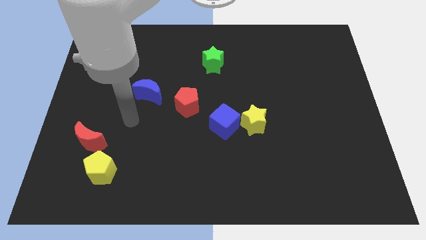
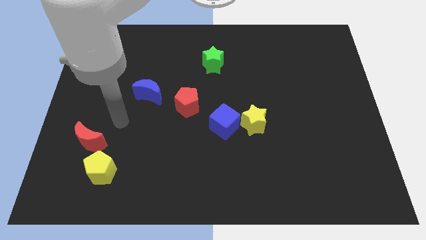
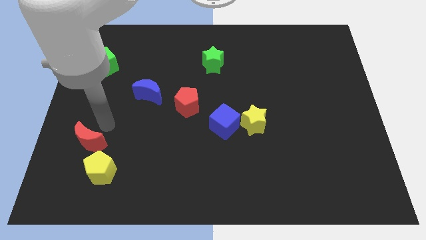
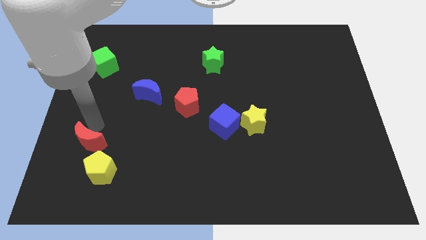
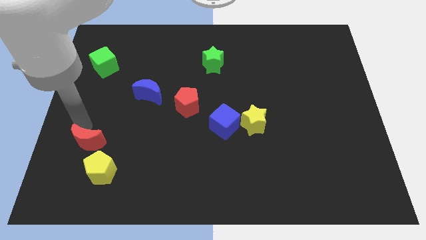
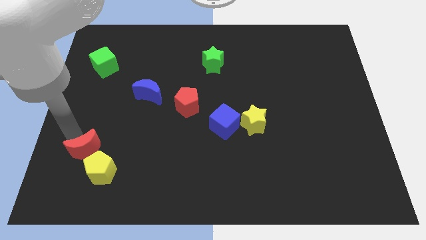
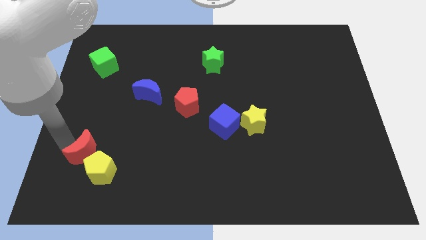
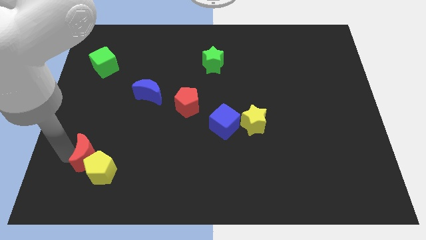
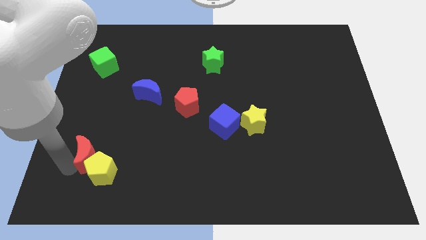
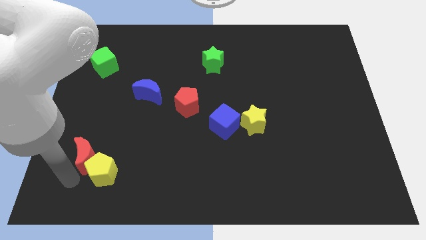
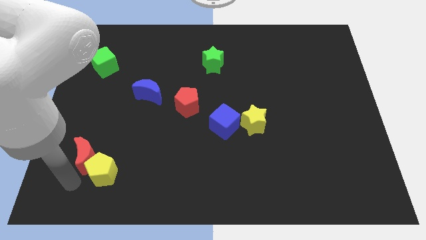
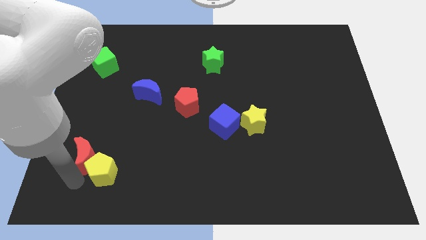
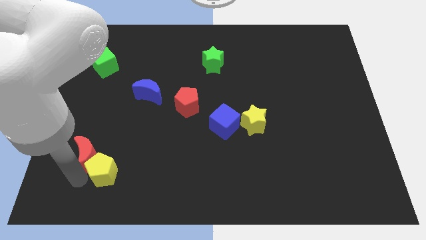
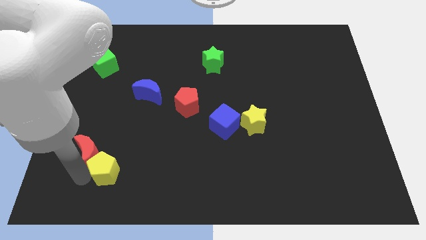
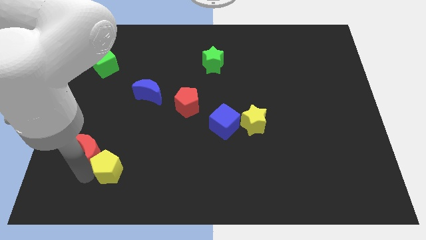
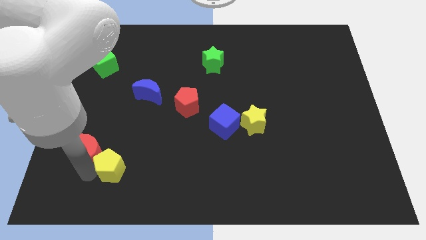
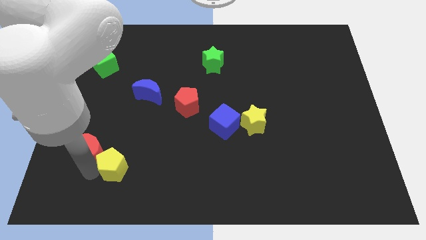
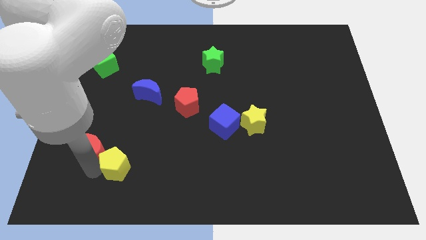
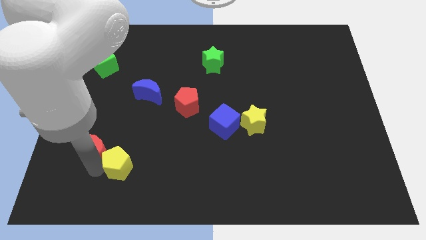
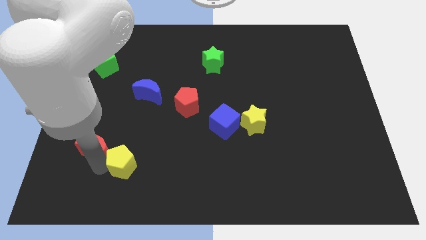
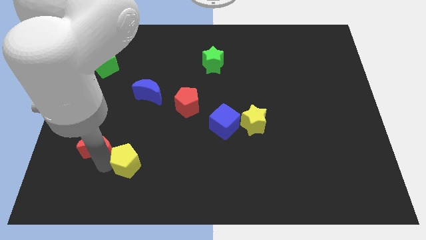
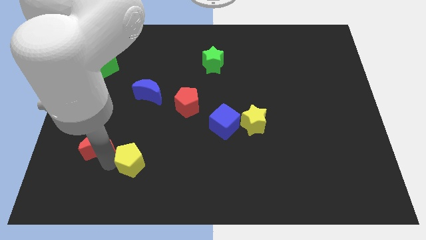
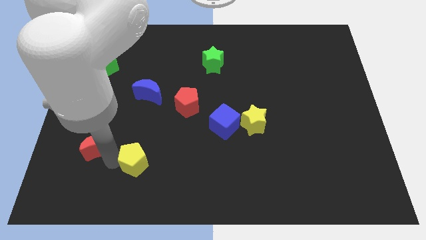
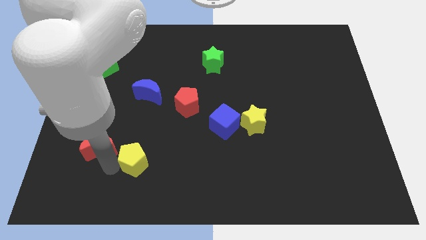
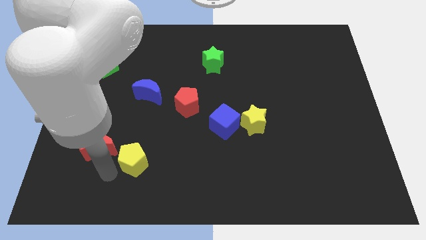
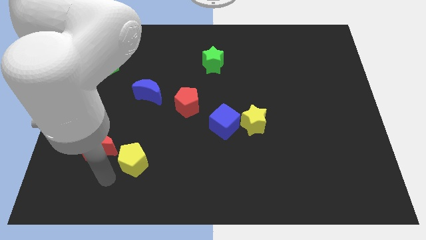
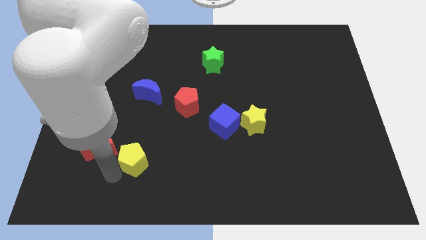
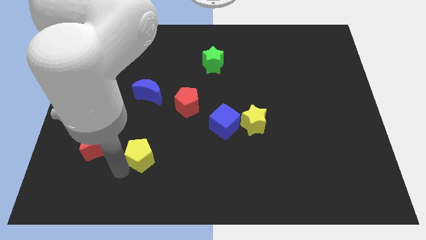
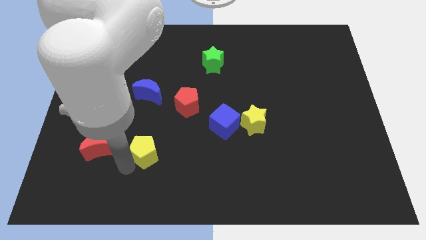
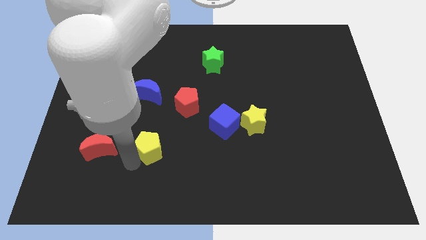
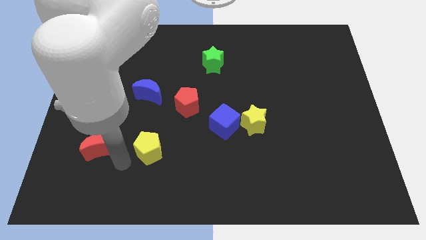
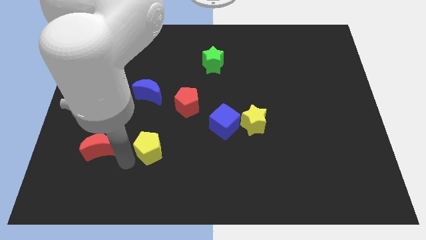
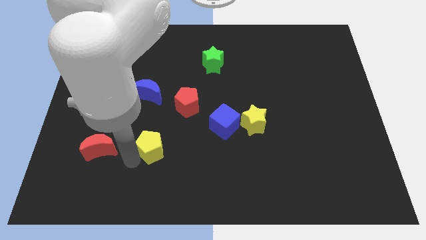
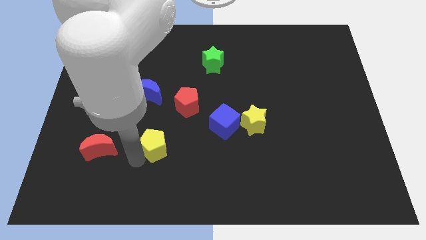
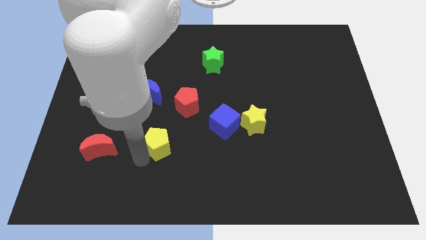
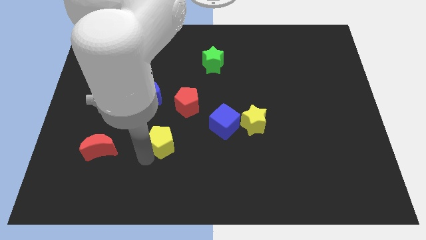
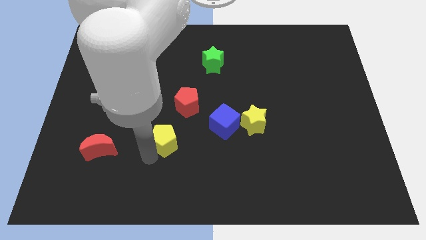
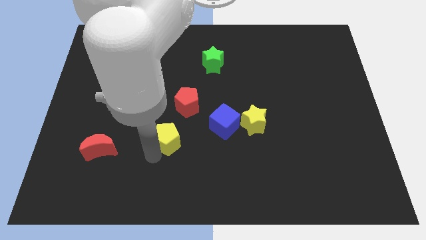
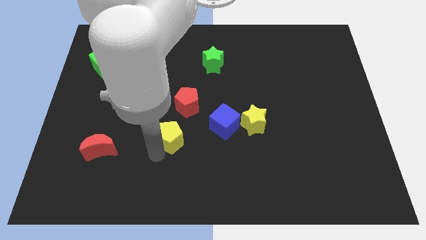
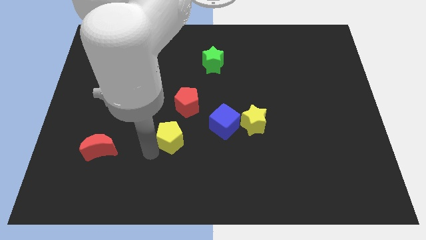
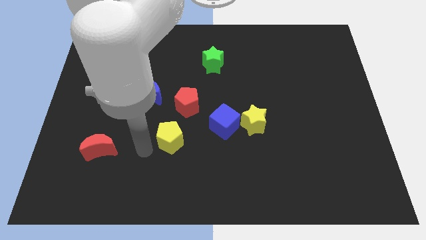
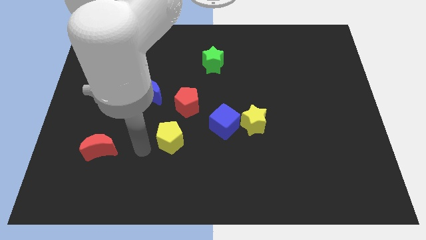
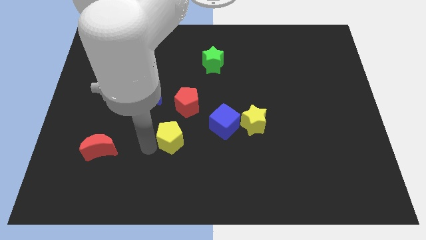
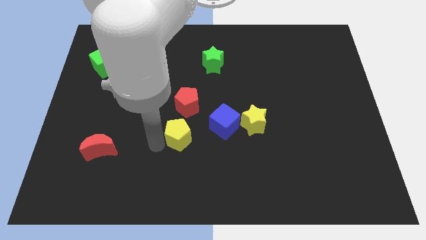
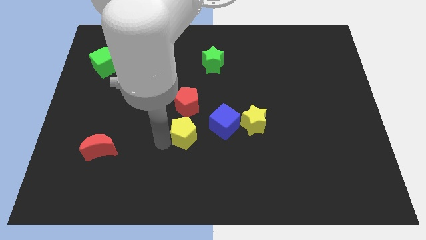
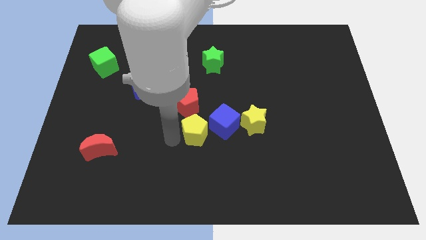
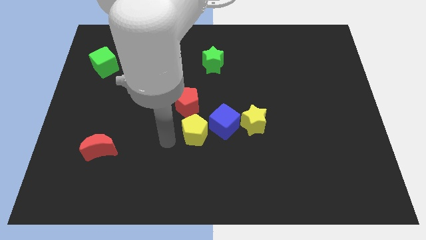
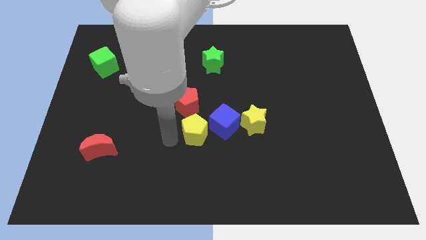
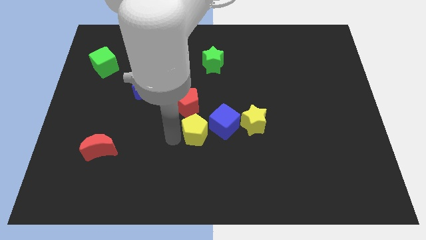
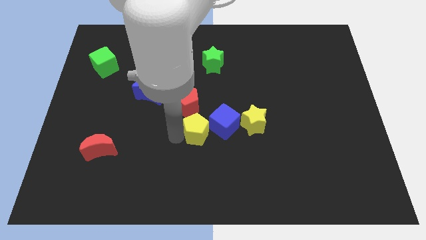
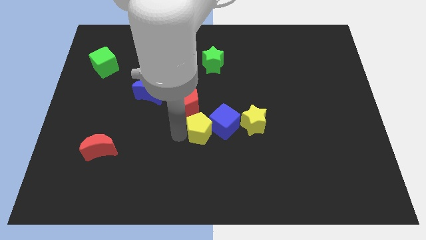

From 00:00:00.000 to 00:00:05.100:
put the yellow pentagon next to the blue cube

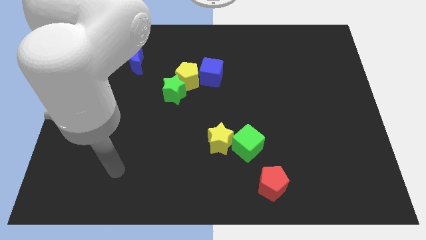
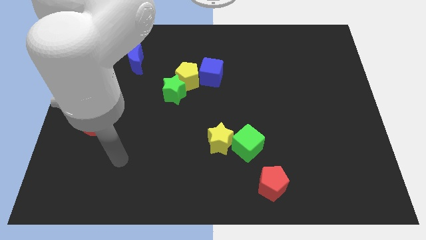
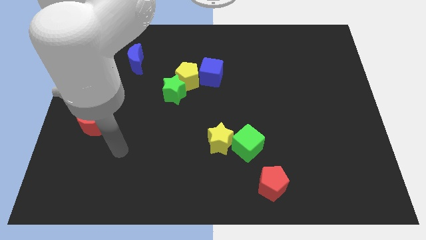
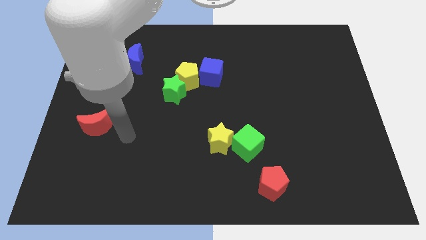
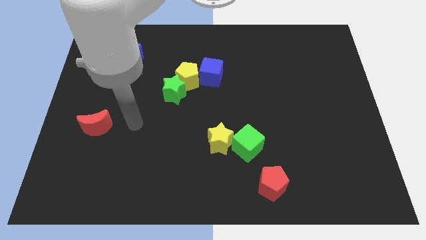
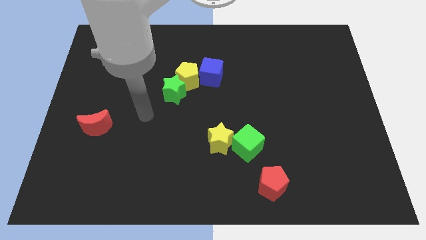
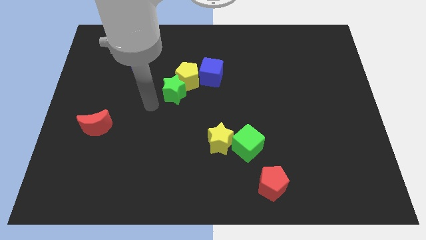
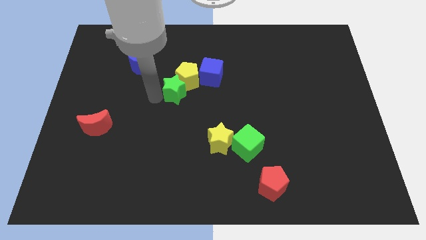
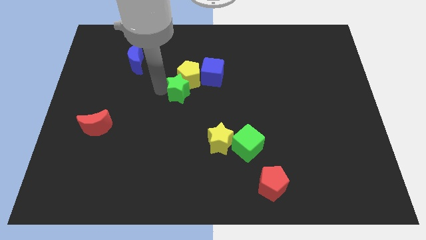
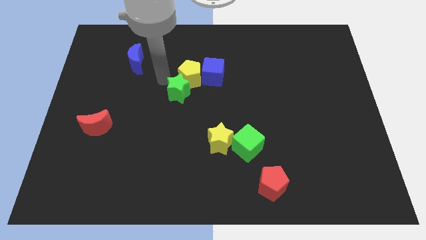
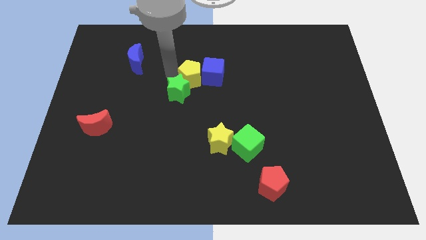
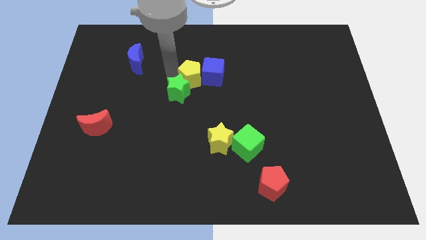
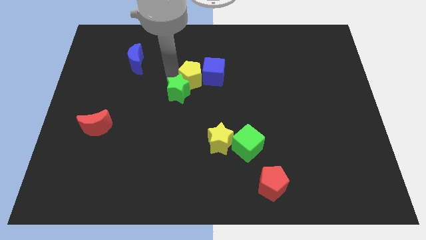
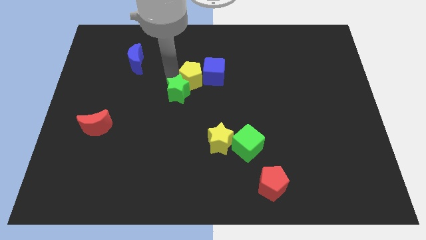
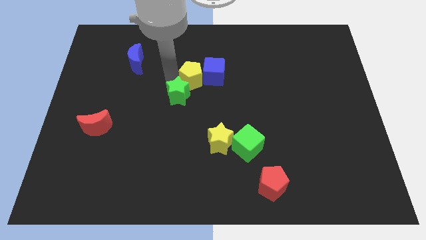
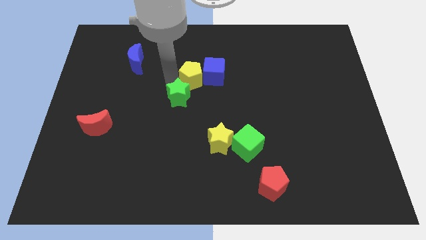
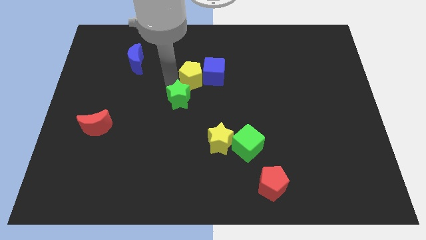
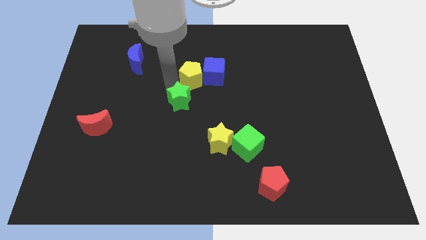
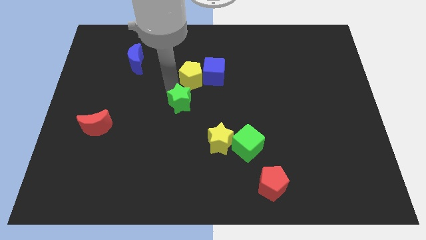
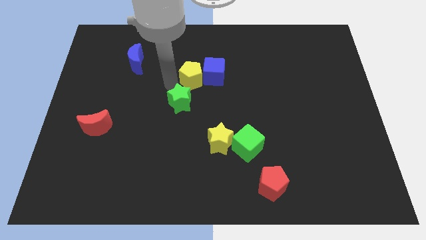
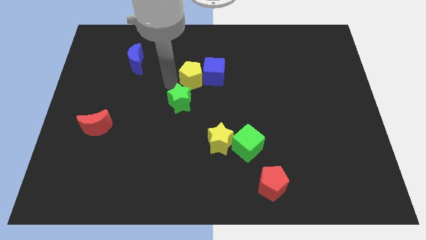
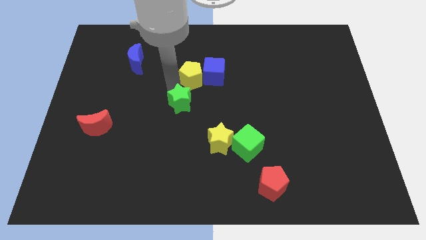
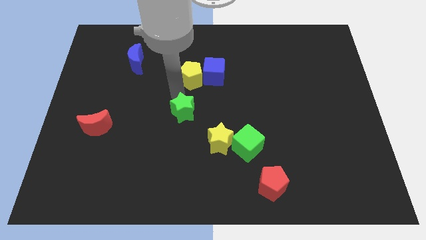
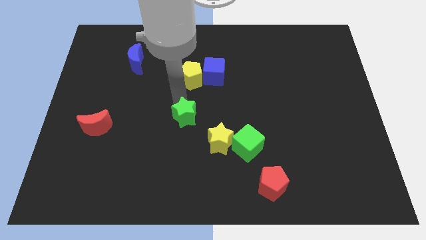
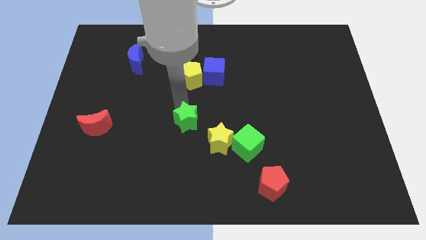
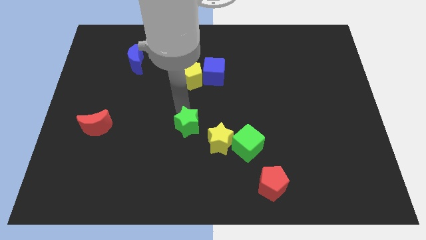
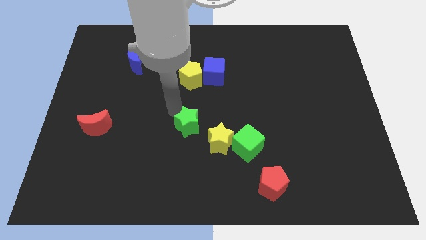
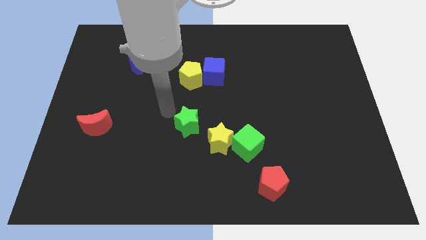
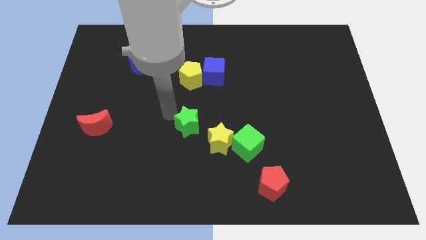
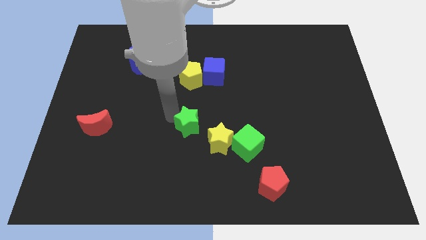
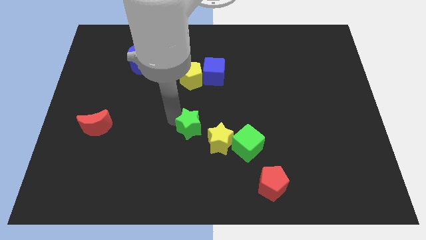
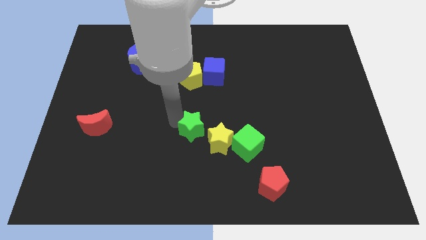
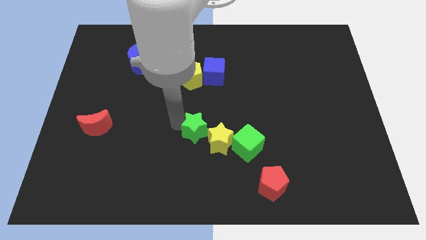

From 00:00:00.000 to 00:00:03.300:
push the green star next to the yellow star
